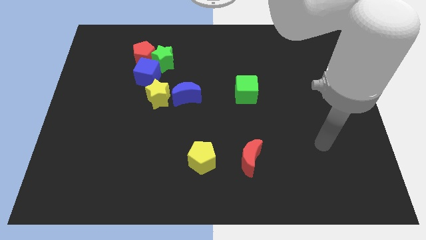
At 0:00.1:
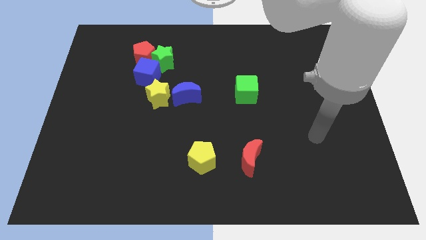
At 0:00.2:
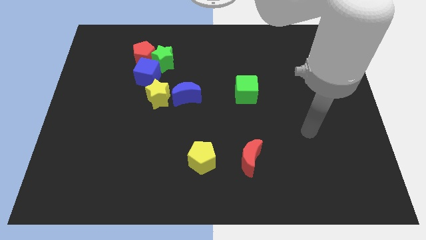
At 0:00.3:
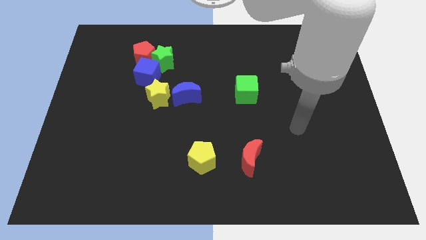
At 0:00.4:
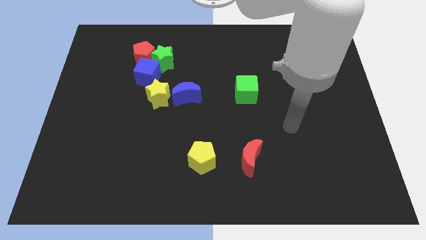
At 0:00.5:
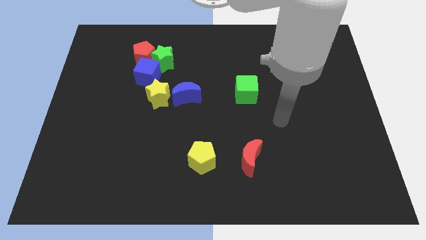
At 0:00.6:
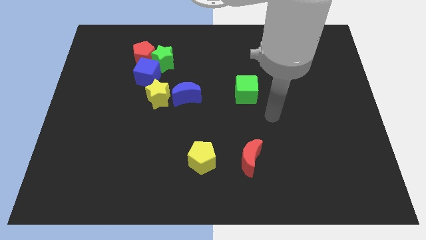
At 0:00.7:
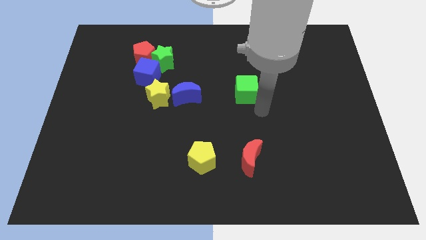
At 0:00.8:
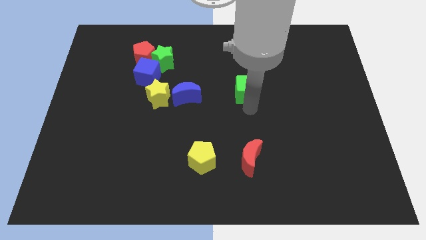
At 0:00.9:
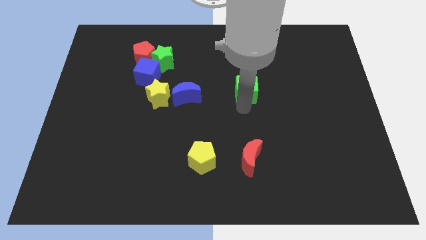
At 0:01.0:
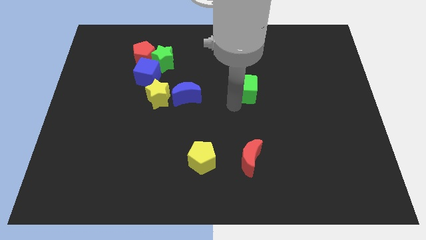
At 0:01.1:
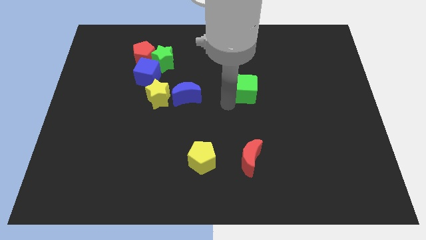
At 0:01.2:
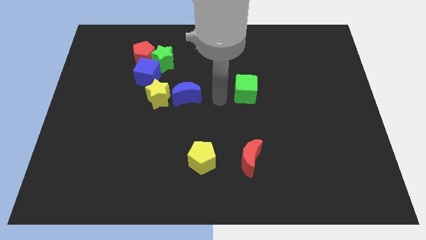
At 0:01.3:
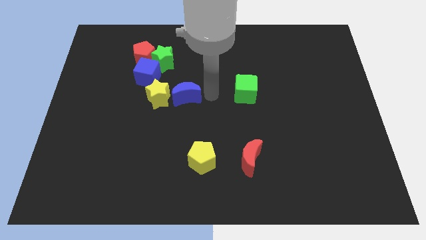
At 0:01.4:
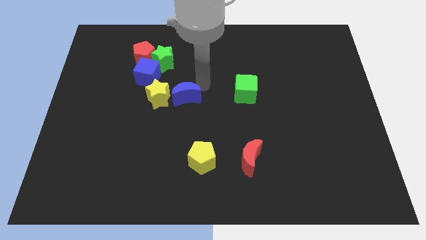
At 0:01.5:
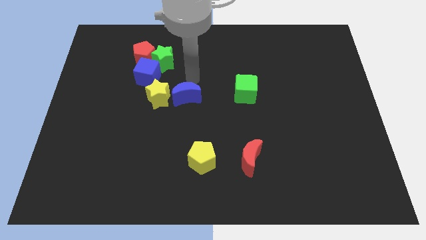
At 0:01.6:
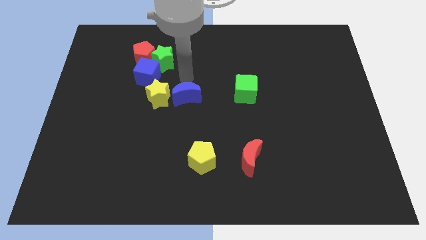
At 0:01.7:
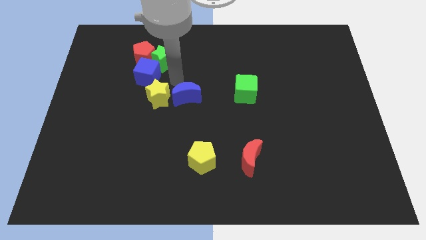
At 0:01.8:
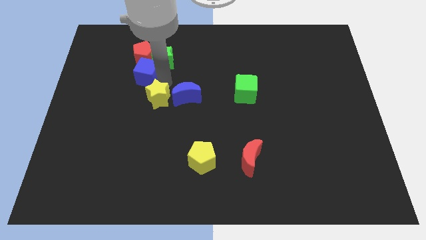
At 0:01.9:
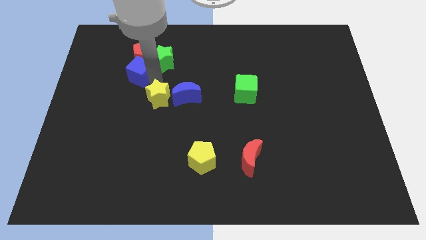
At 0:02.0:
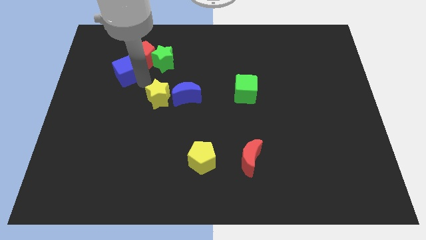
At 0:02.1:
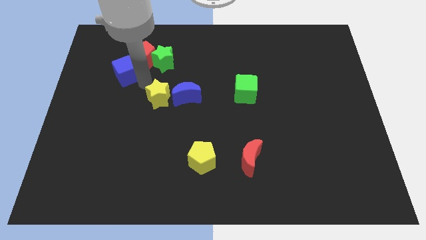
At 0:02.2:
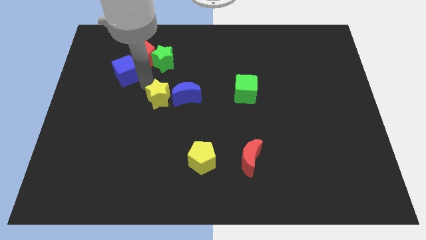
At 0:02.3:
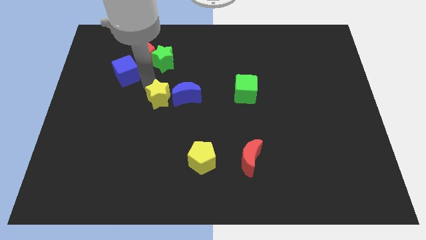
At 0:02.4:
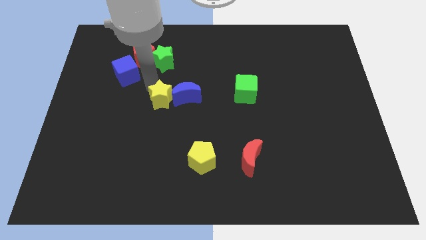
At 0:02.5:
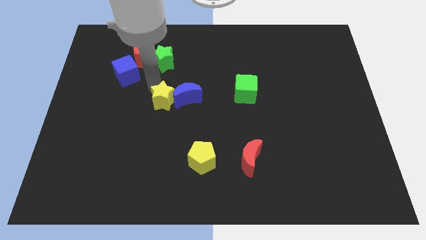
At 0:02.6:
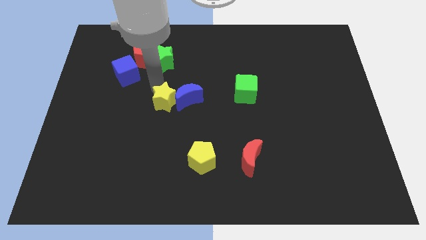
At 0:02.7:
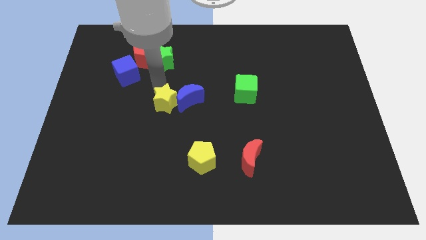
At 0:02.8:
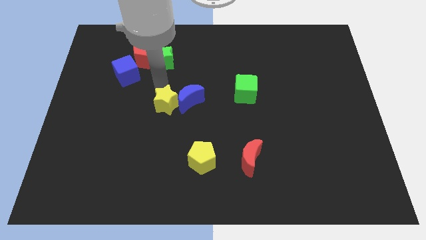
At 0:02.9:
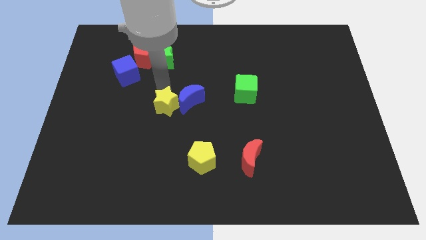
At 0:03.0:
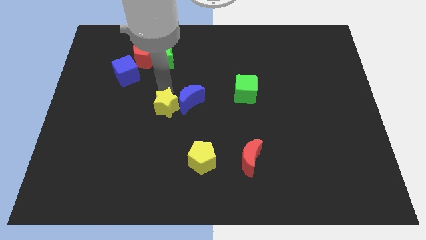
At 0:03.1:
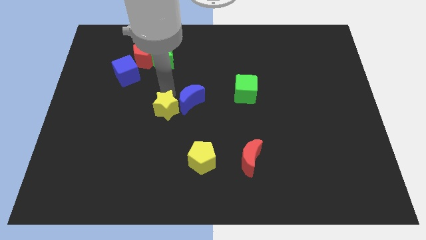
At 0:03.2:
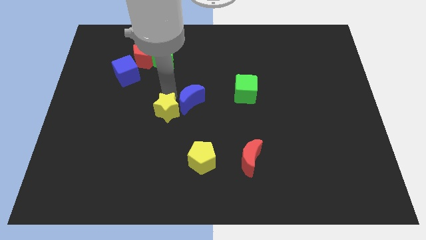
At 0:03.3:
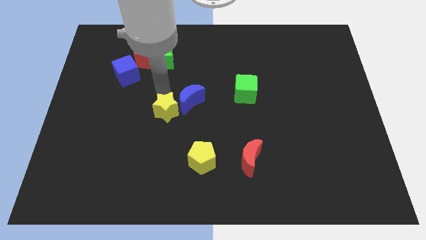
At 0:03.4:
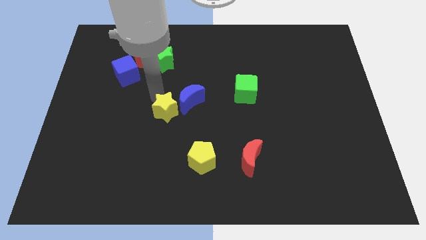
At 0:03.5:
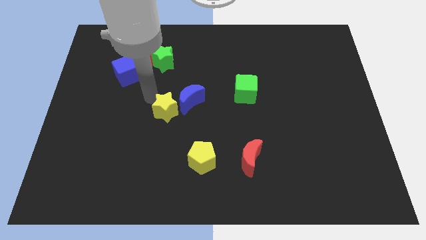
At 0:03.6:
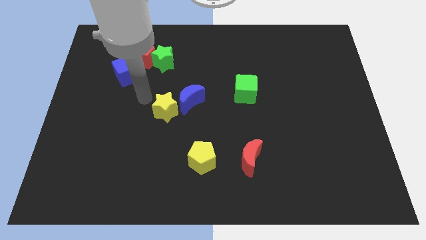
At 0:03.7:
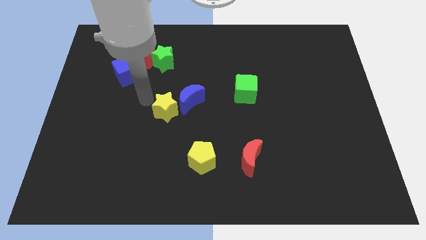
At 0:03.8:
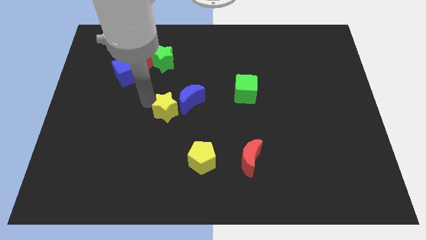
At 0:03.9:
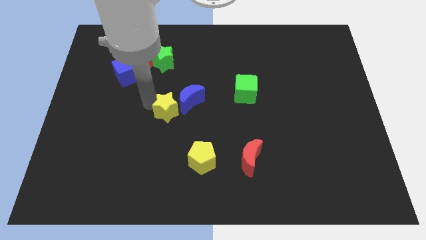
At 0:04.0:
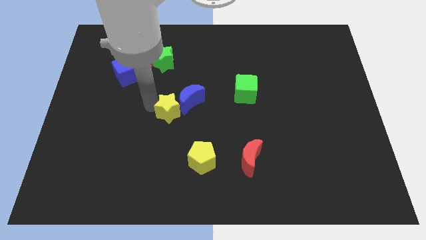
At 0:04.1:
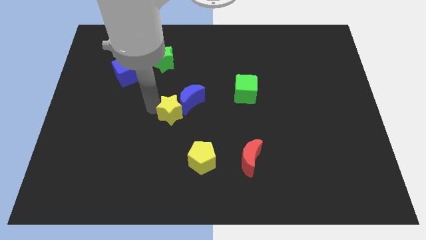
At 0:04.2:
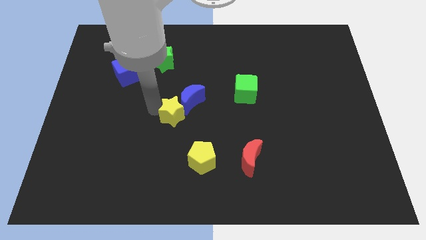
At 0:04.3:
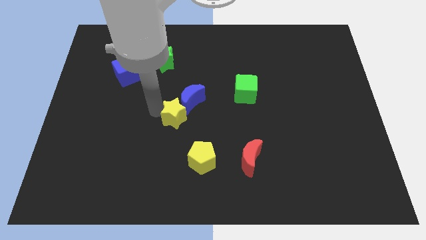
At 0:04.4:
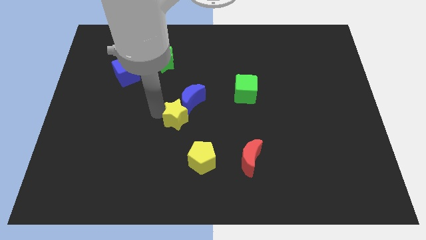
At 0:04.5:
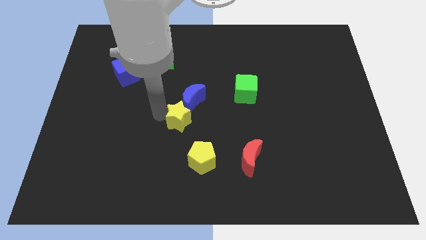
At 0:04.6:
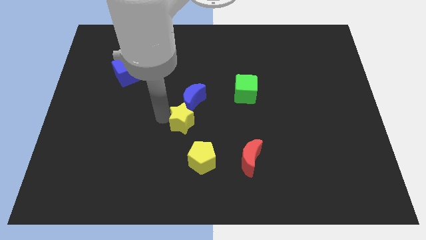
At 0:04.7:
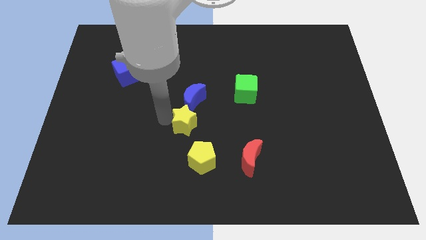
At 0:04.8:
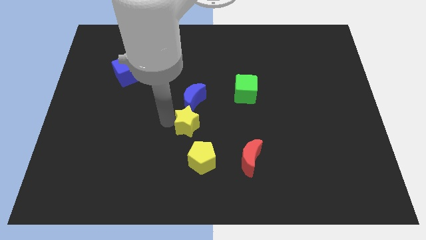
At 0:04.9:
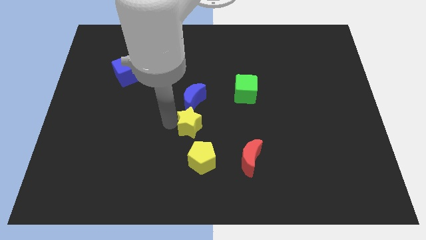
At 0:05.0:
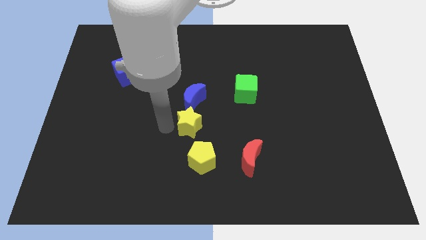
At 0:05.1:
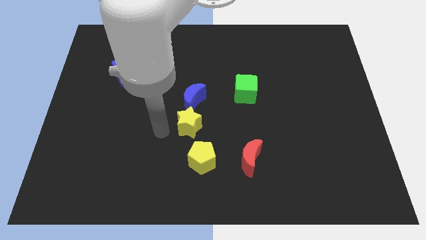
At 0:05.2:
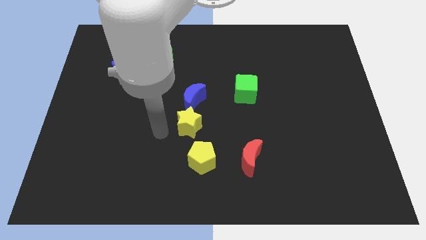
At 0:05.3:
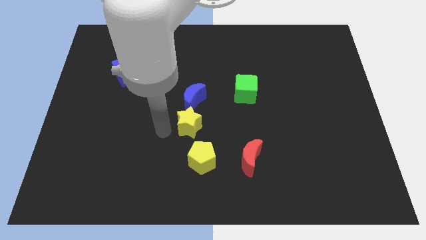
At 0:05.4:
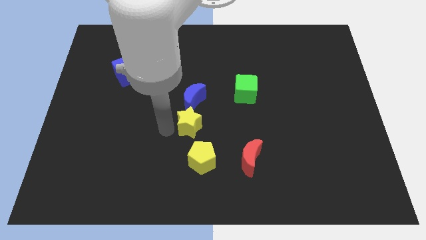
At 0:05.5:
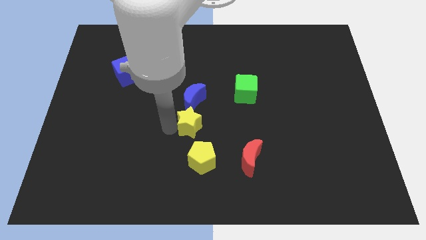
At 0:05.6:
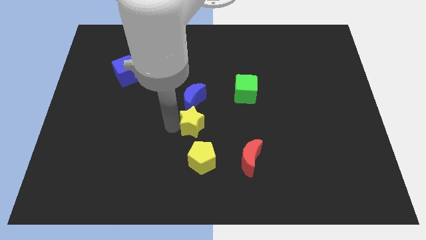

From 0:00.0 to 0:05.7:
slide the yellow star to the bottom right of the blue moon

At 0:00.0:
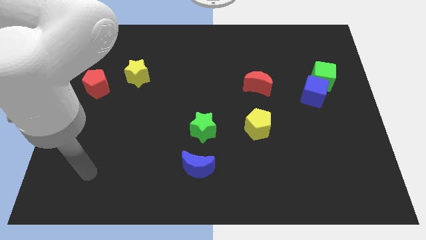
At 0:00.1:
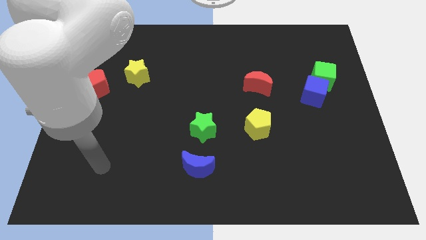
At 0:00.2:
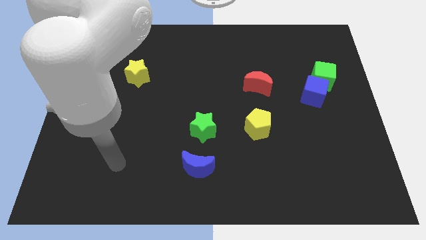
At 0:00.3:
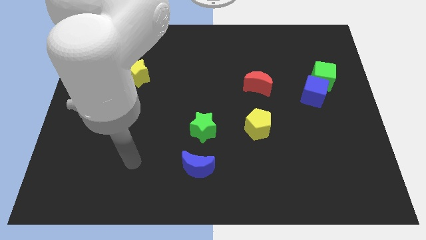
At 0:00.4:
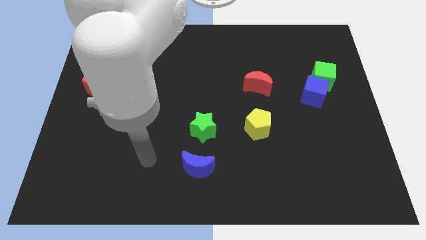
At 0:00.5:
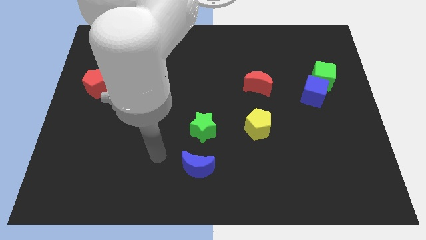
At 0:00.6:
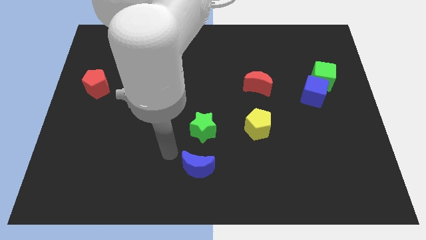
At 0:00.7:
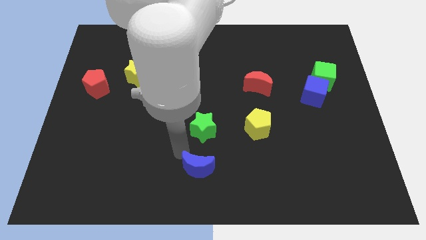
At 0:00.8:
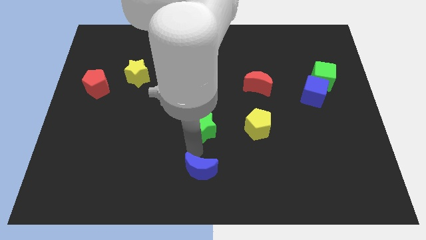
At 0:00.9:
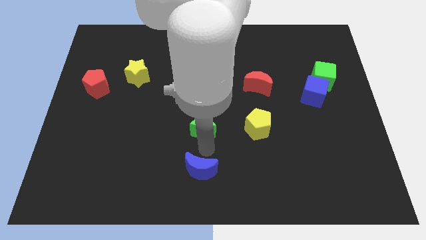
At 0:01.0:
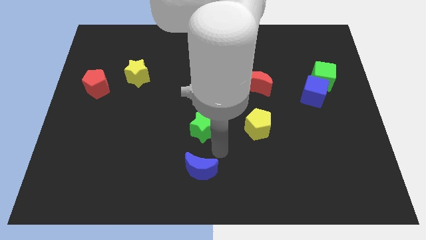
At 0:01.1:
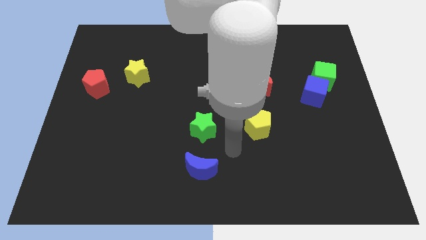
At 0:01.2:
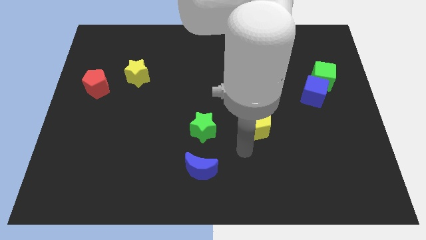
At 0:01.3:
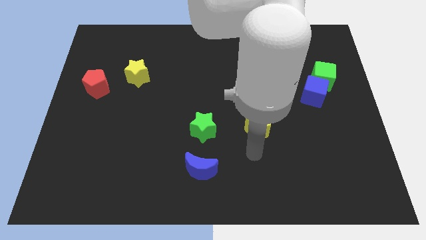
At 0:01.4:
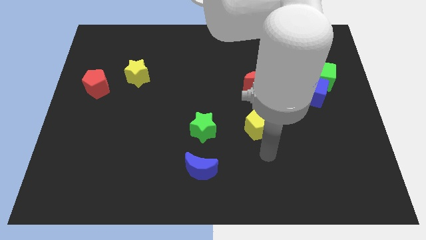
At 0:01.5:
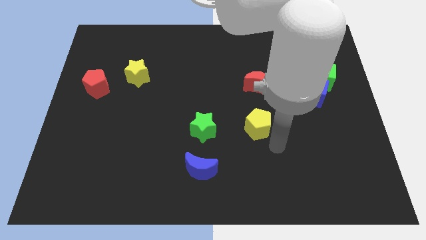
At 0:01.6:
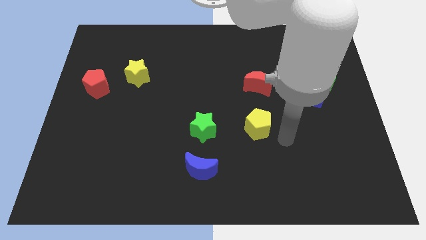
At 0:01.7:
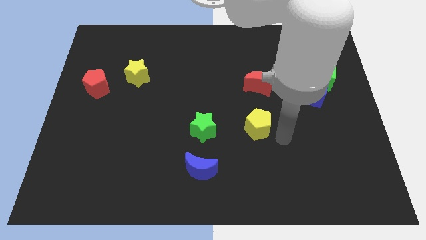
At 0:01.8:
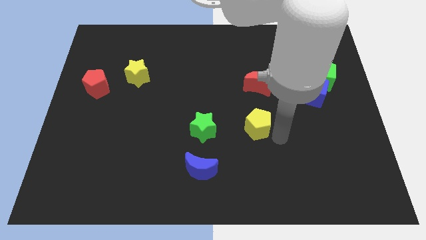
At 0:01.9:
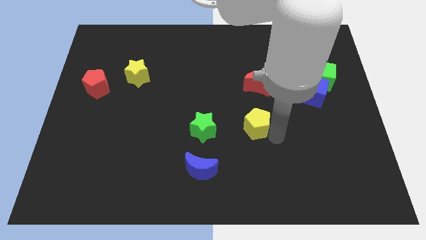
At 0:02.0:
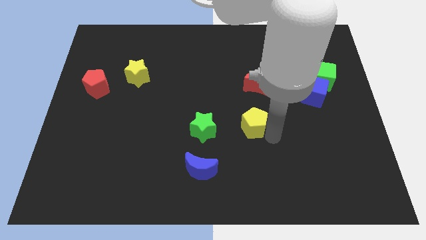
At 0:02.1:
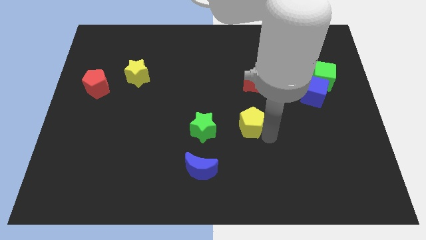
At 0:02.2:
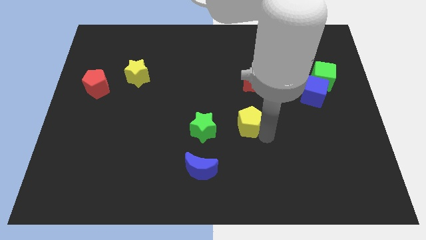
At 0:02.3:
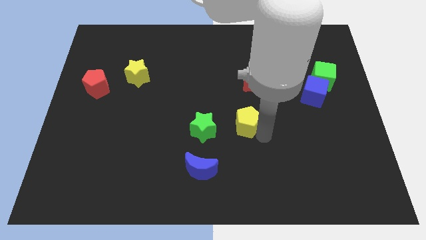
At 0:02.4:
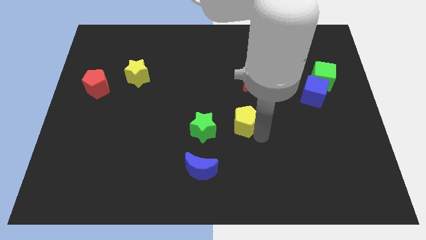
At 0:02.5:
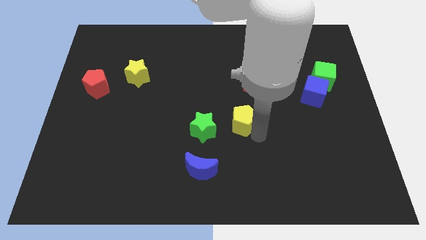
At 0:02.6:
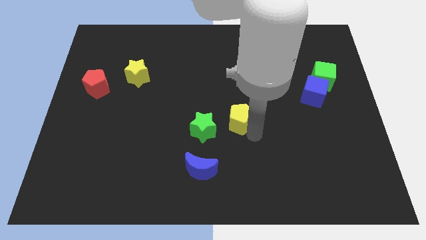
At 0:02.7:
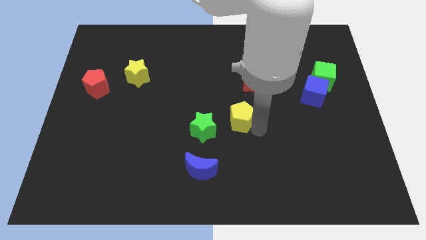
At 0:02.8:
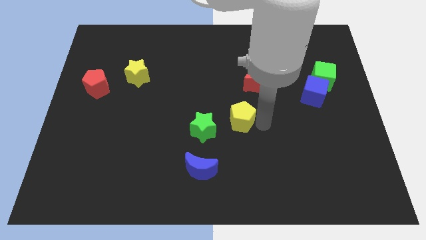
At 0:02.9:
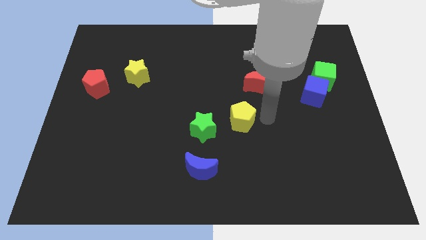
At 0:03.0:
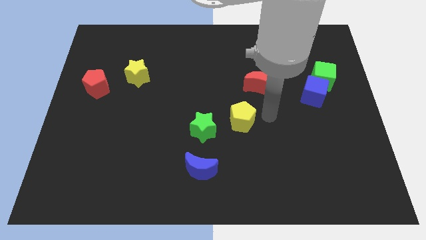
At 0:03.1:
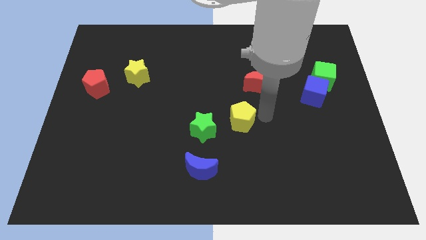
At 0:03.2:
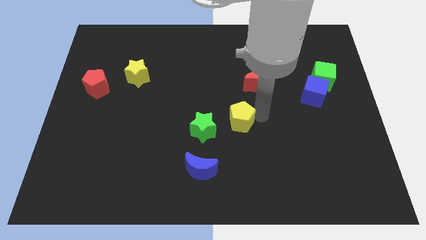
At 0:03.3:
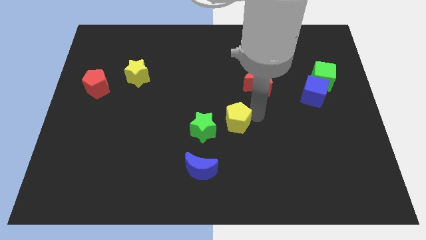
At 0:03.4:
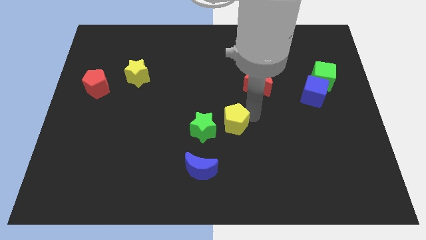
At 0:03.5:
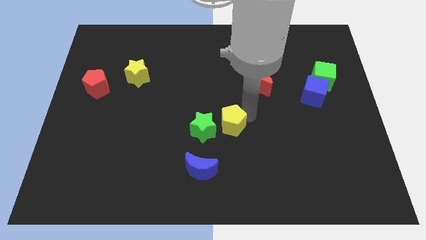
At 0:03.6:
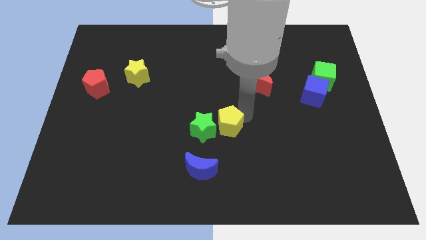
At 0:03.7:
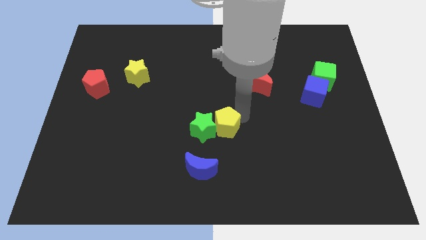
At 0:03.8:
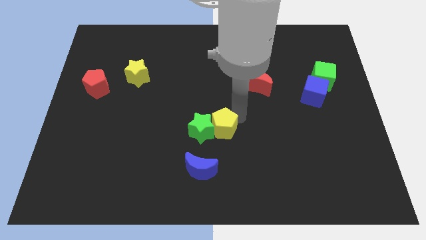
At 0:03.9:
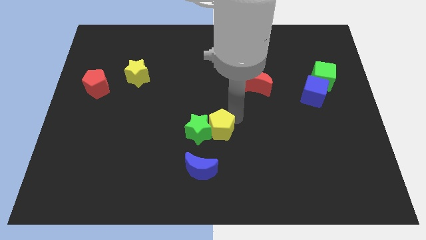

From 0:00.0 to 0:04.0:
move the yellow pentagon to the top side of the blue moon
